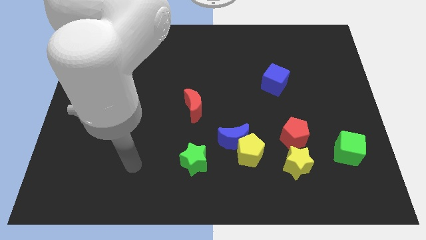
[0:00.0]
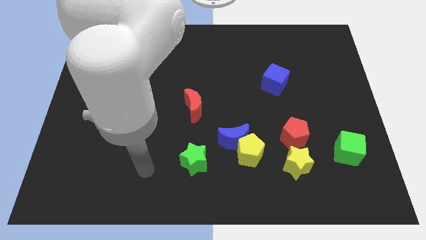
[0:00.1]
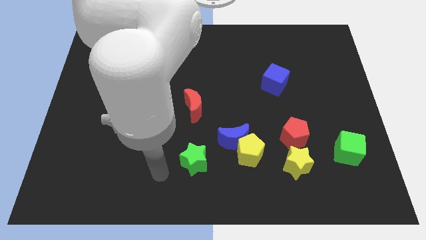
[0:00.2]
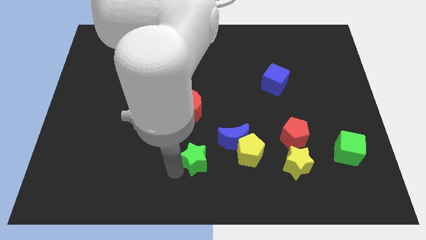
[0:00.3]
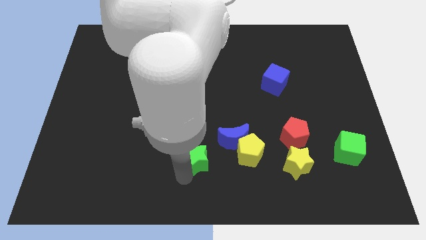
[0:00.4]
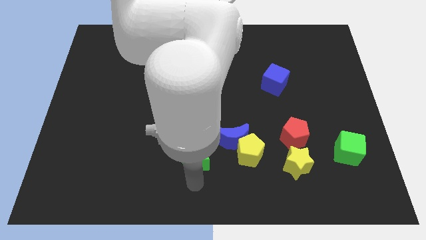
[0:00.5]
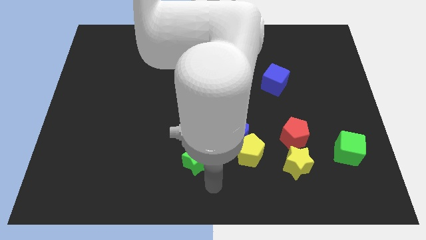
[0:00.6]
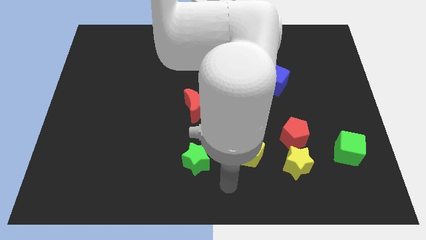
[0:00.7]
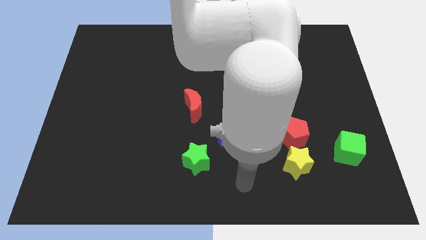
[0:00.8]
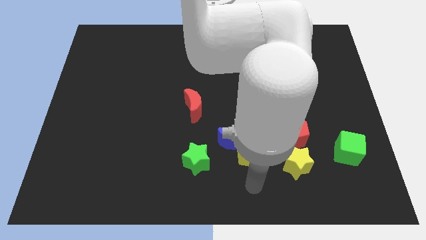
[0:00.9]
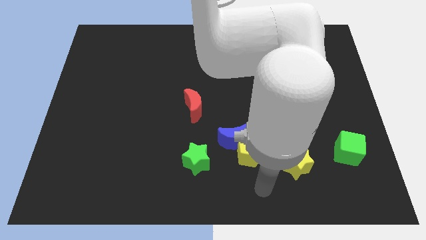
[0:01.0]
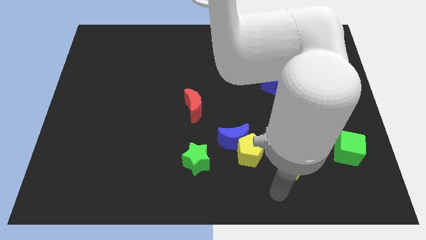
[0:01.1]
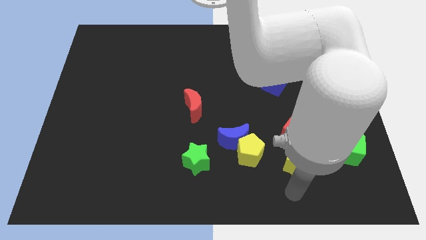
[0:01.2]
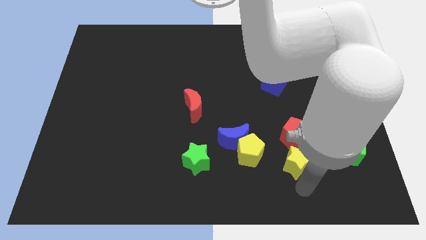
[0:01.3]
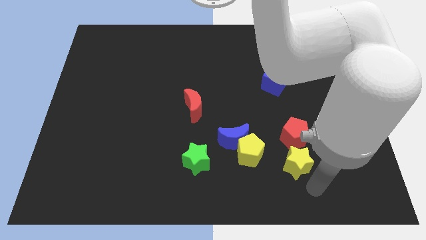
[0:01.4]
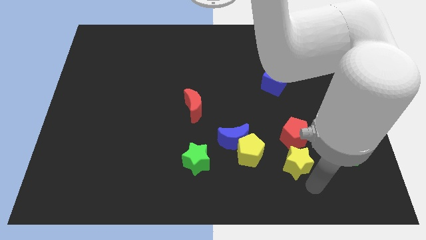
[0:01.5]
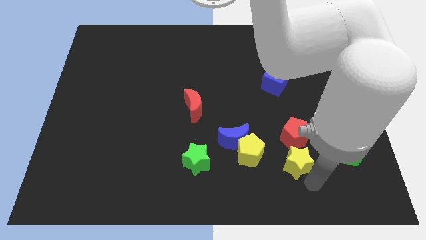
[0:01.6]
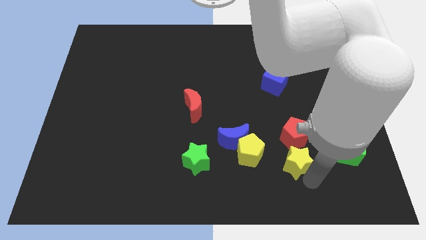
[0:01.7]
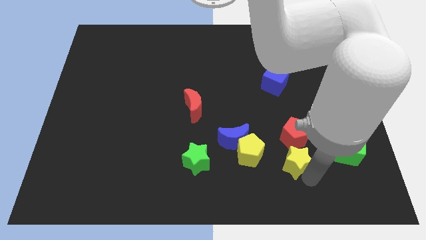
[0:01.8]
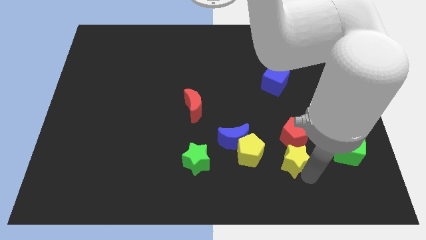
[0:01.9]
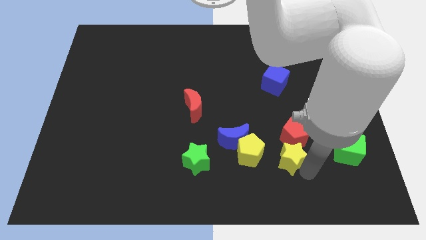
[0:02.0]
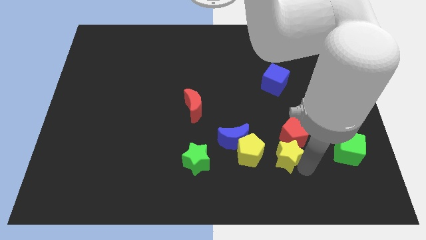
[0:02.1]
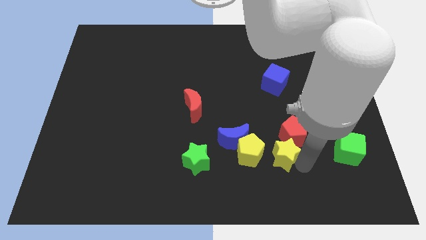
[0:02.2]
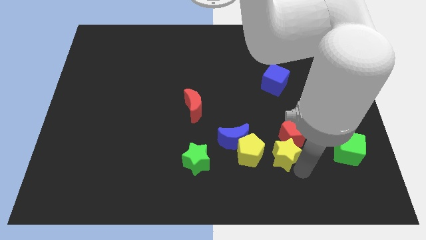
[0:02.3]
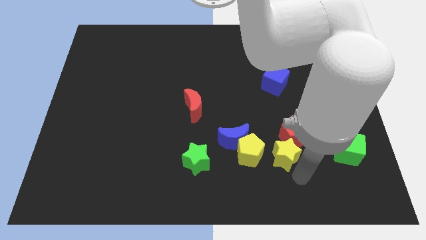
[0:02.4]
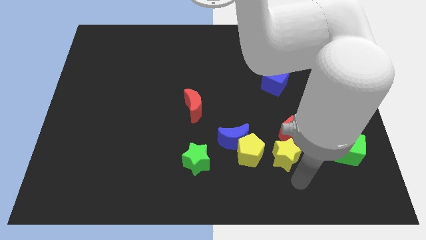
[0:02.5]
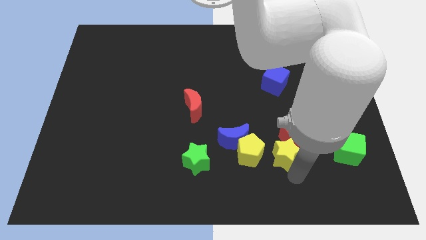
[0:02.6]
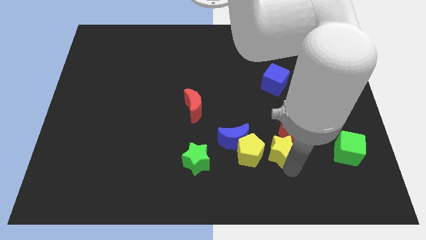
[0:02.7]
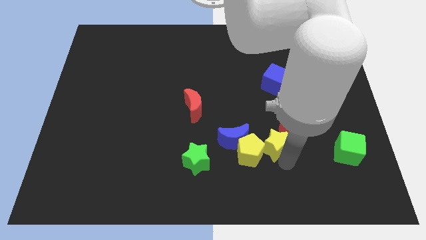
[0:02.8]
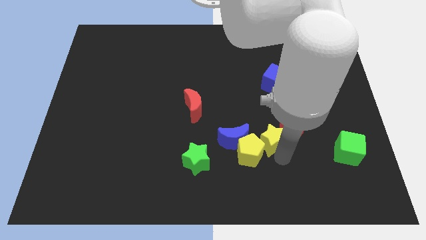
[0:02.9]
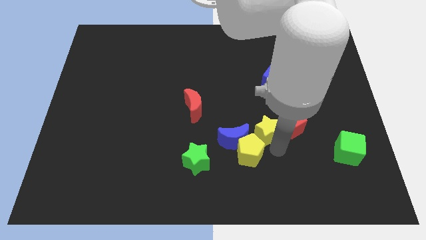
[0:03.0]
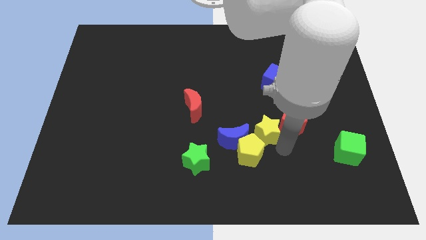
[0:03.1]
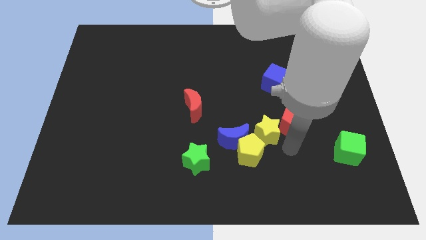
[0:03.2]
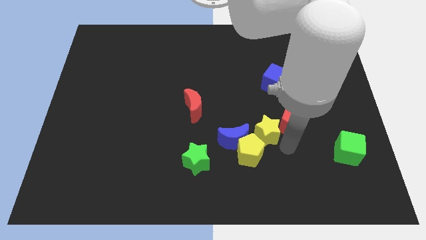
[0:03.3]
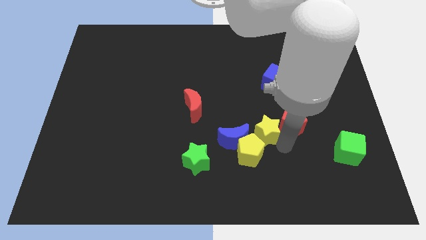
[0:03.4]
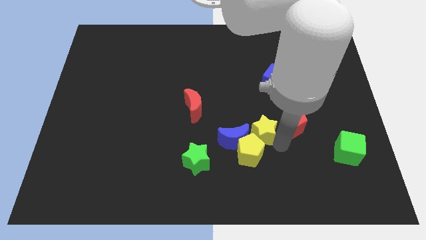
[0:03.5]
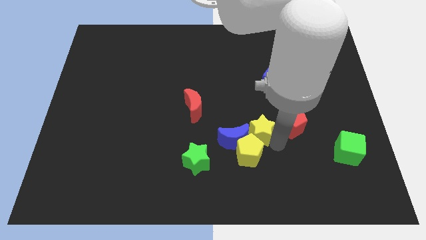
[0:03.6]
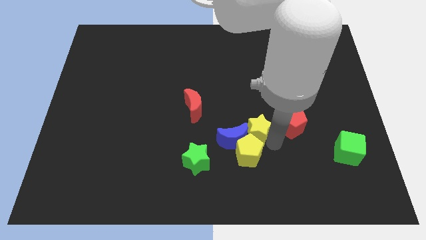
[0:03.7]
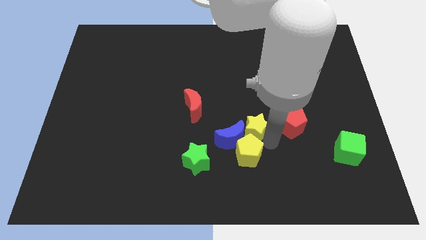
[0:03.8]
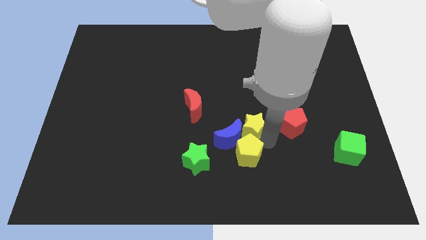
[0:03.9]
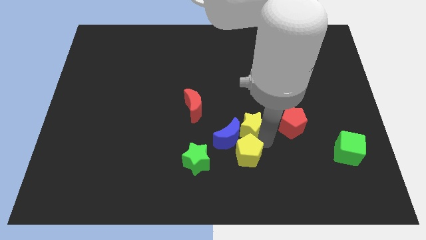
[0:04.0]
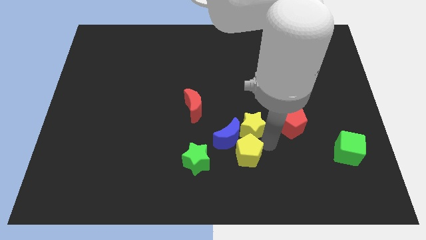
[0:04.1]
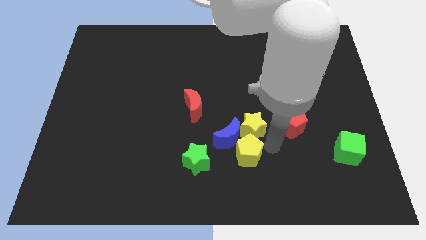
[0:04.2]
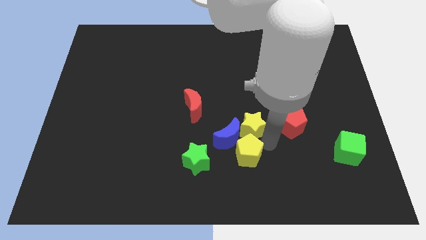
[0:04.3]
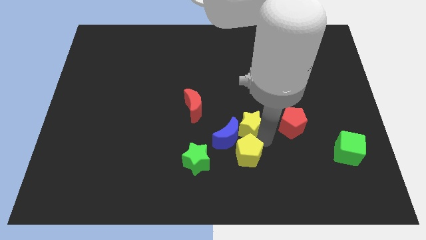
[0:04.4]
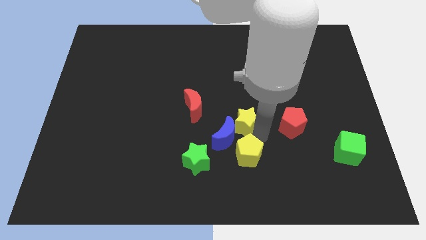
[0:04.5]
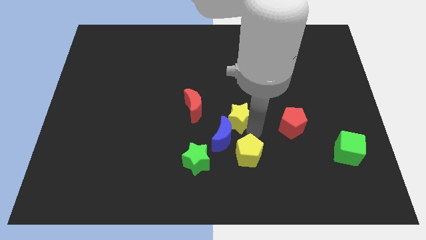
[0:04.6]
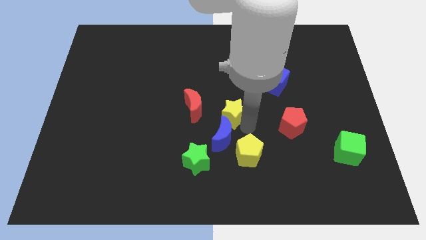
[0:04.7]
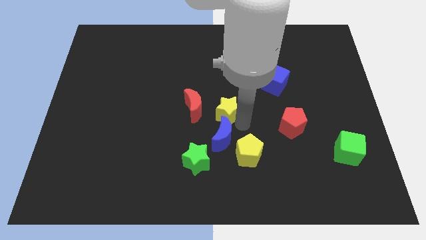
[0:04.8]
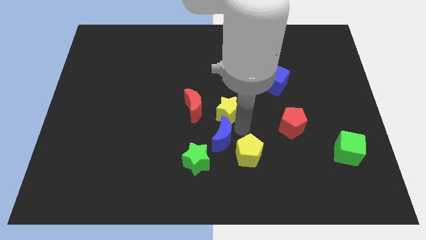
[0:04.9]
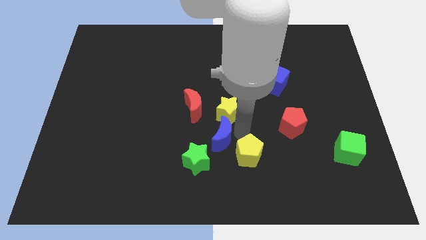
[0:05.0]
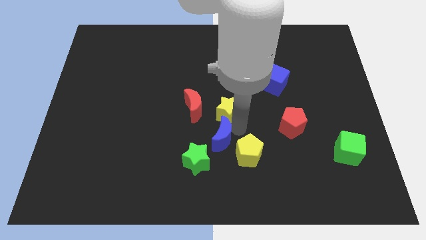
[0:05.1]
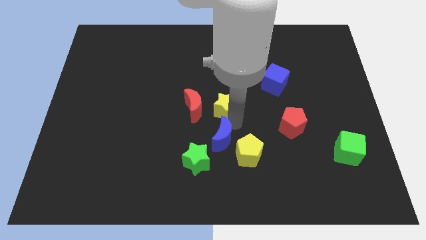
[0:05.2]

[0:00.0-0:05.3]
push the yellow star upwards and to the left

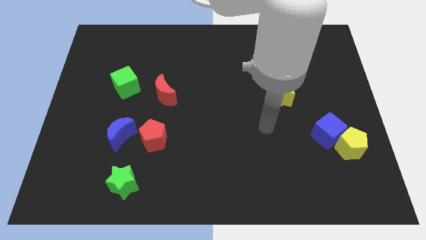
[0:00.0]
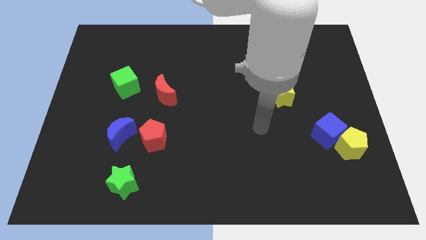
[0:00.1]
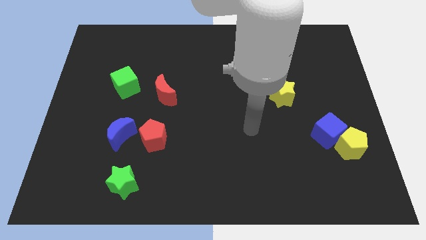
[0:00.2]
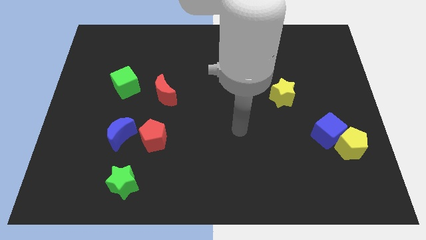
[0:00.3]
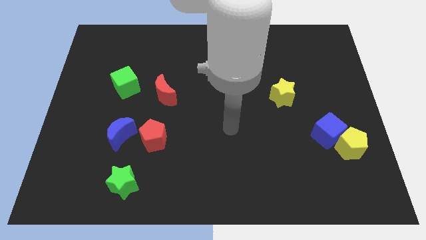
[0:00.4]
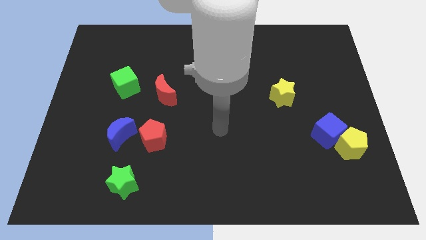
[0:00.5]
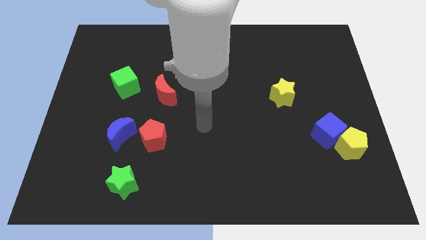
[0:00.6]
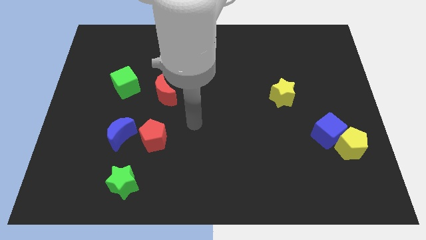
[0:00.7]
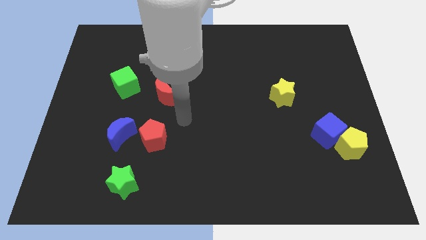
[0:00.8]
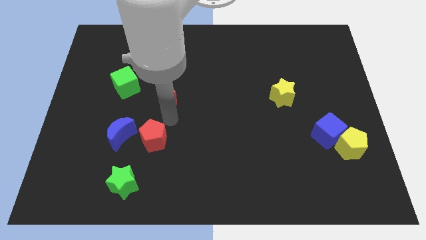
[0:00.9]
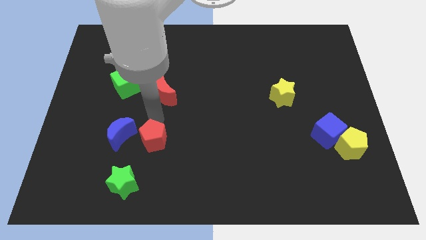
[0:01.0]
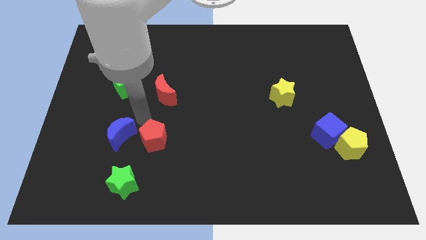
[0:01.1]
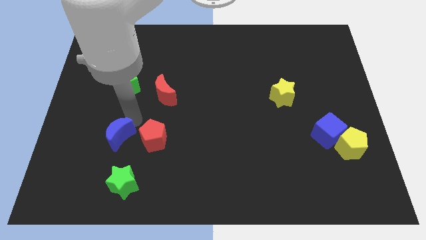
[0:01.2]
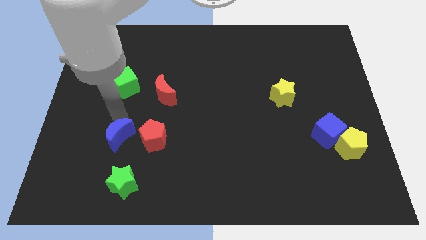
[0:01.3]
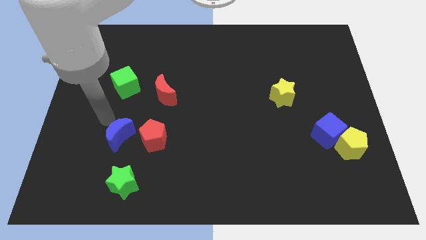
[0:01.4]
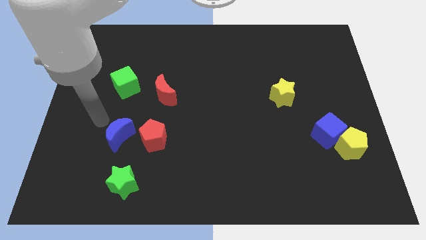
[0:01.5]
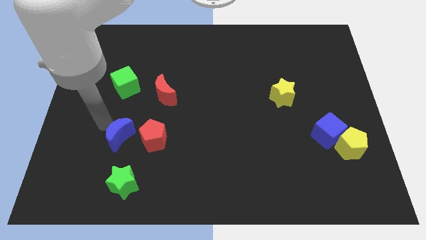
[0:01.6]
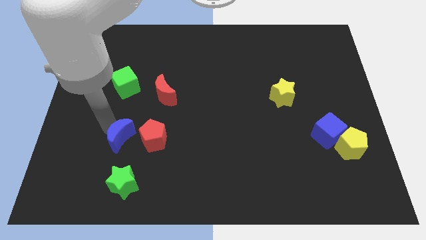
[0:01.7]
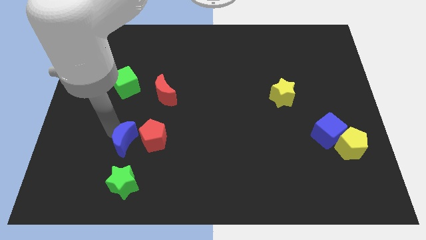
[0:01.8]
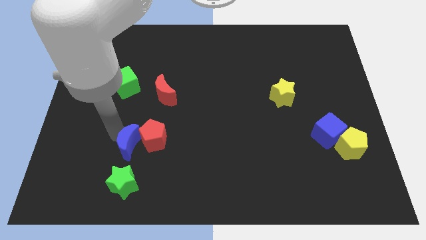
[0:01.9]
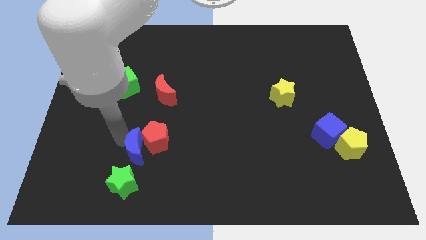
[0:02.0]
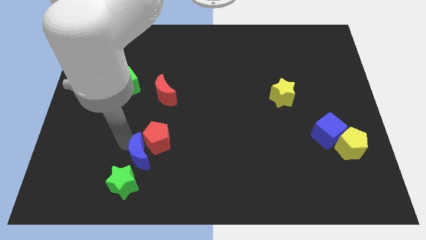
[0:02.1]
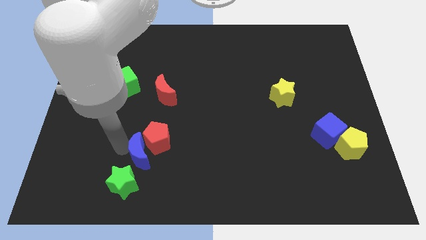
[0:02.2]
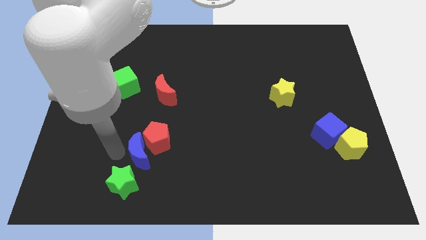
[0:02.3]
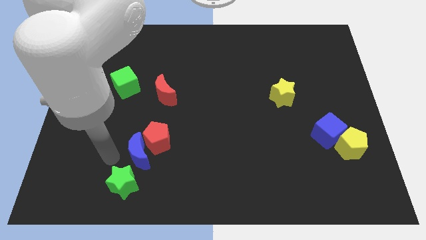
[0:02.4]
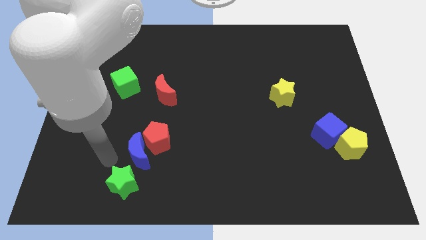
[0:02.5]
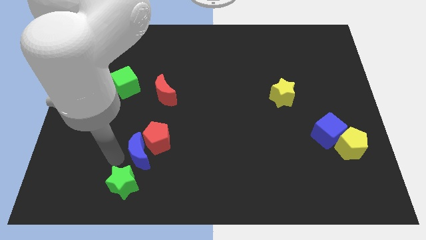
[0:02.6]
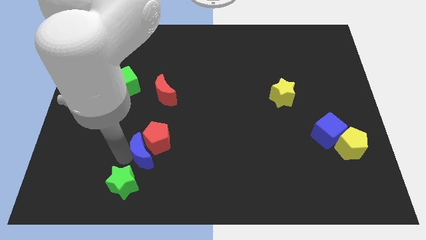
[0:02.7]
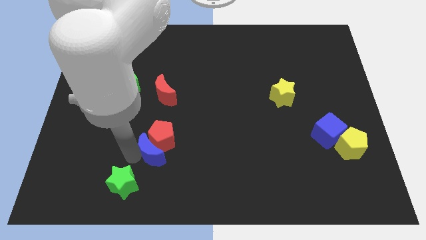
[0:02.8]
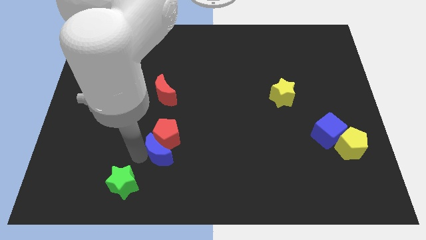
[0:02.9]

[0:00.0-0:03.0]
move the blue moon a little bit right
